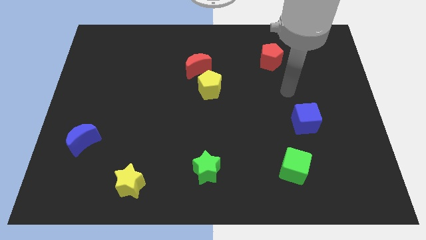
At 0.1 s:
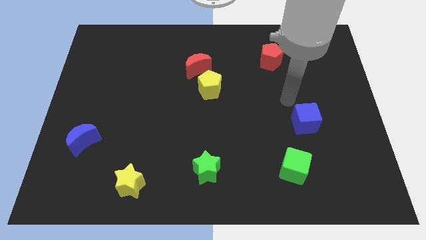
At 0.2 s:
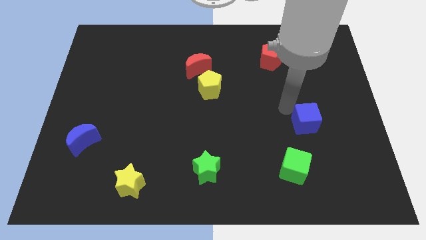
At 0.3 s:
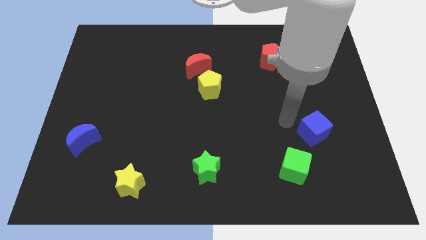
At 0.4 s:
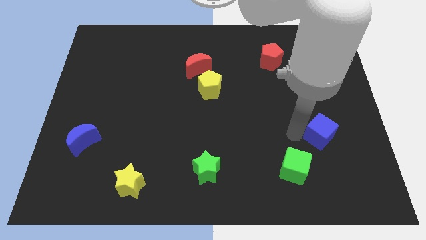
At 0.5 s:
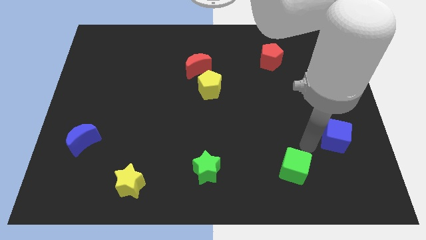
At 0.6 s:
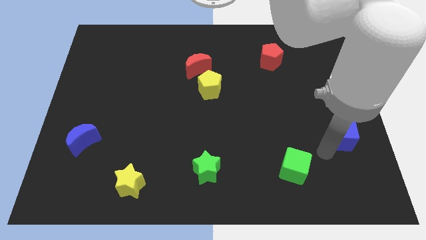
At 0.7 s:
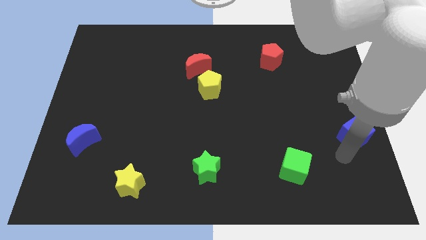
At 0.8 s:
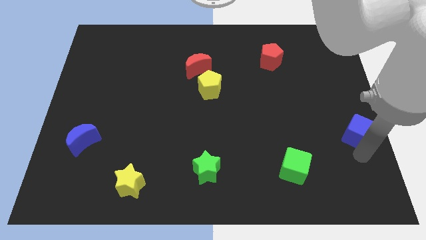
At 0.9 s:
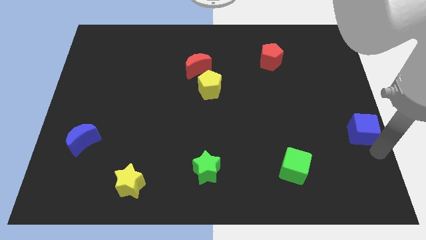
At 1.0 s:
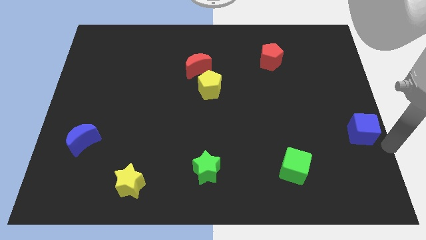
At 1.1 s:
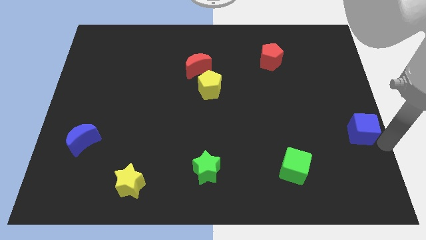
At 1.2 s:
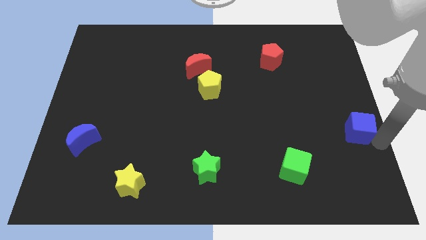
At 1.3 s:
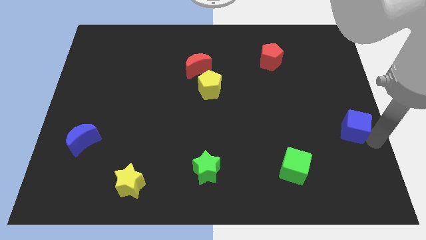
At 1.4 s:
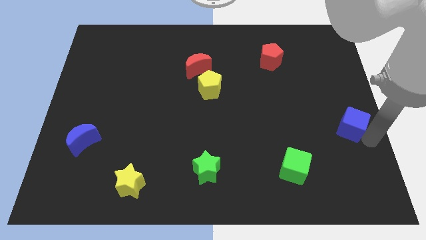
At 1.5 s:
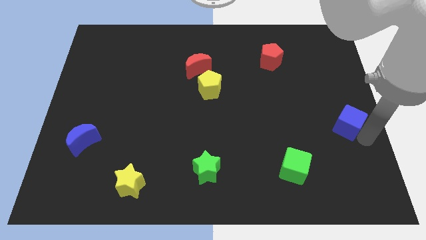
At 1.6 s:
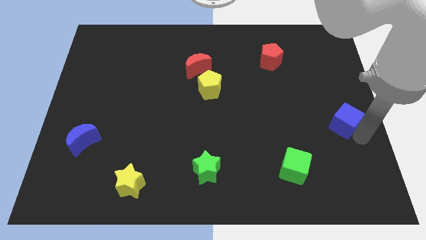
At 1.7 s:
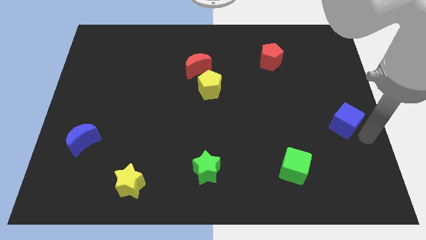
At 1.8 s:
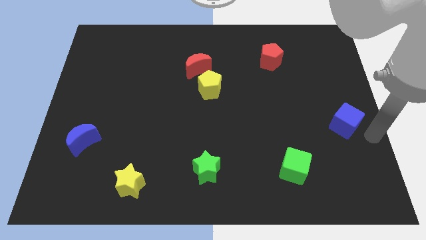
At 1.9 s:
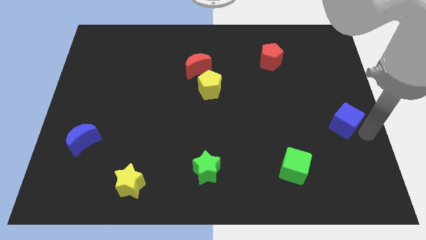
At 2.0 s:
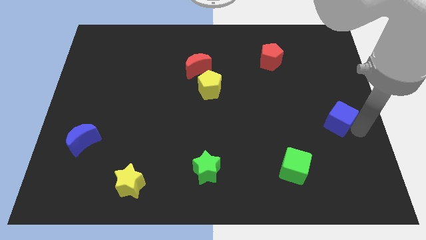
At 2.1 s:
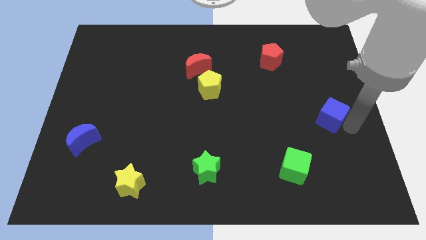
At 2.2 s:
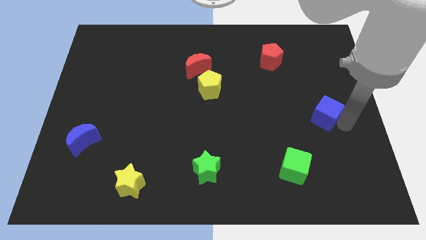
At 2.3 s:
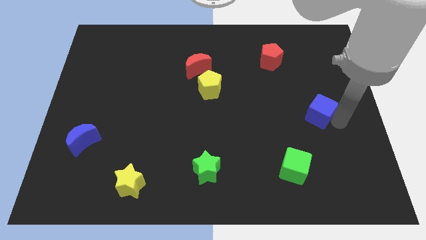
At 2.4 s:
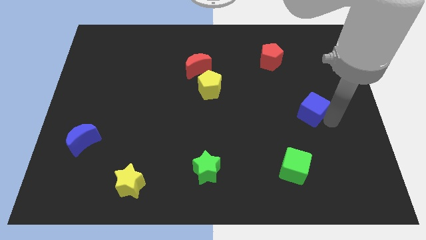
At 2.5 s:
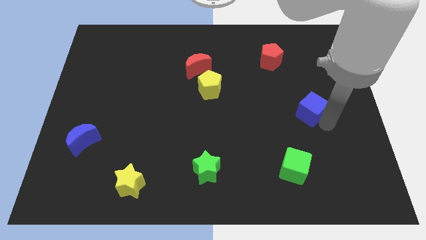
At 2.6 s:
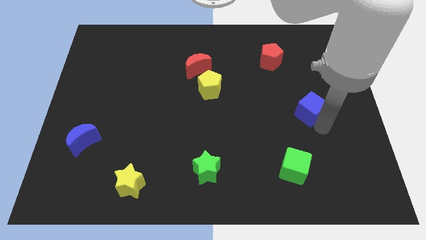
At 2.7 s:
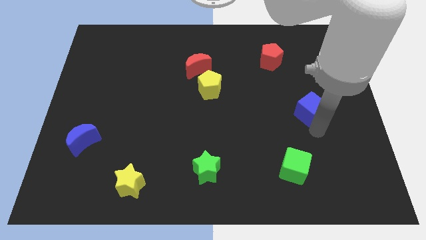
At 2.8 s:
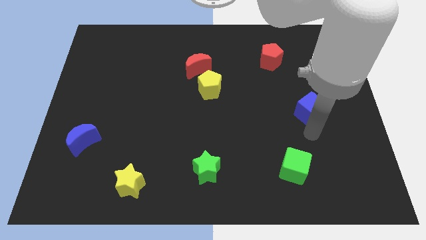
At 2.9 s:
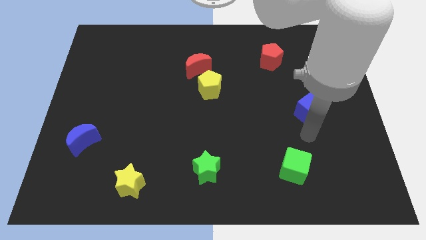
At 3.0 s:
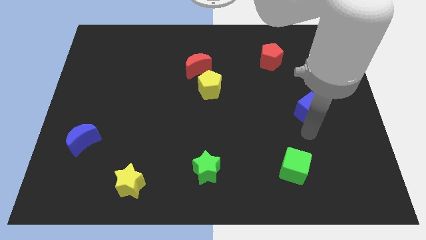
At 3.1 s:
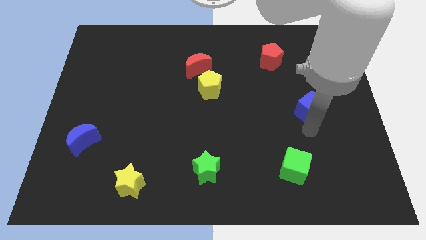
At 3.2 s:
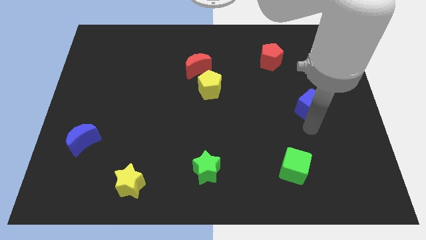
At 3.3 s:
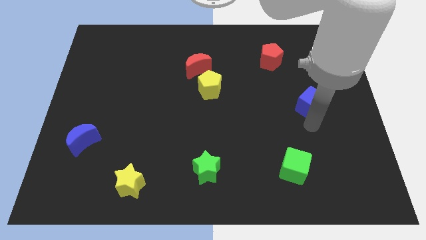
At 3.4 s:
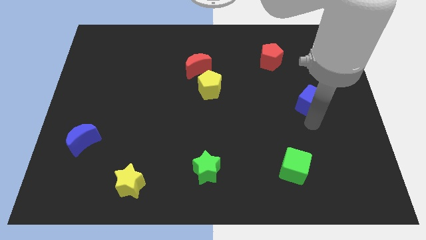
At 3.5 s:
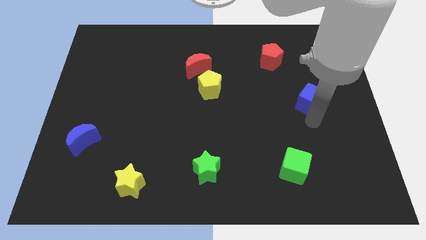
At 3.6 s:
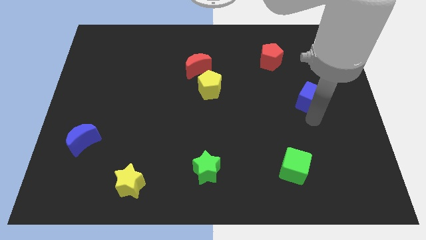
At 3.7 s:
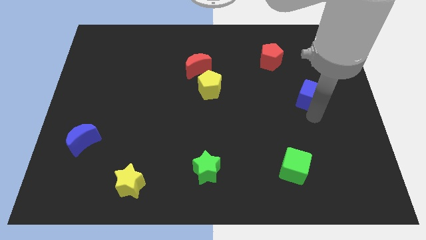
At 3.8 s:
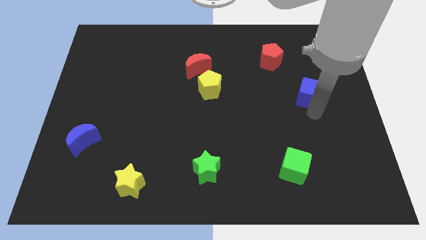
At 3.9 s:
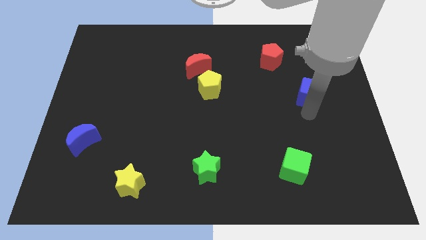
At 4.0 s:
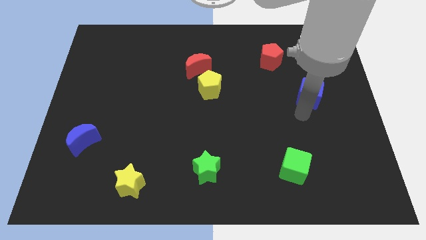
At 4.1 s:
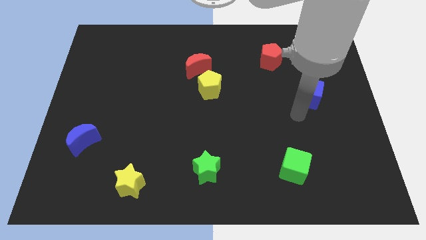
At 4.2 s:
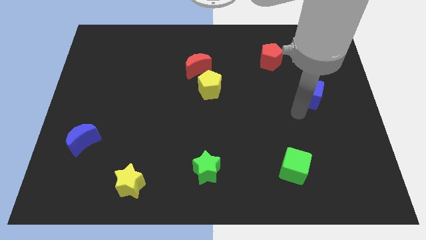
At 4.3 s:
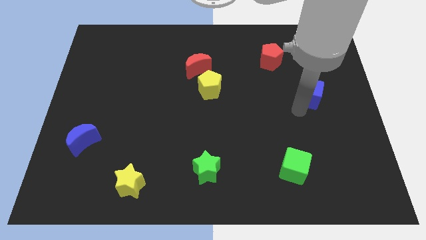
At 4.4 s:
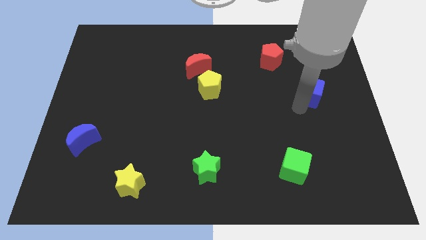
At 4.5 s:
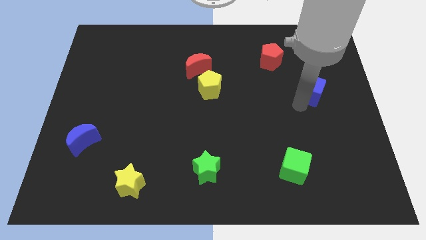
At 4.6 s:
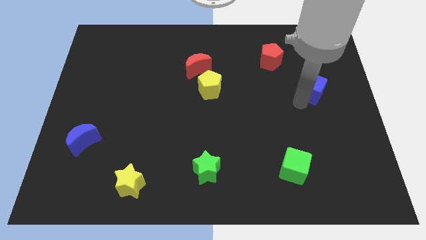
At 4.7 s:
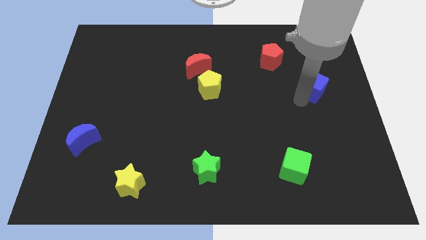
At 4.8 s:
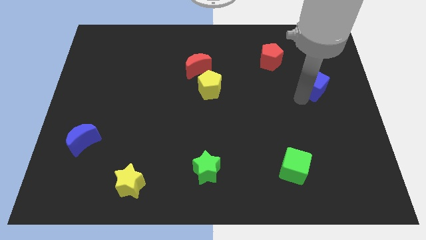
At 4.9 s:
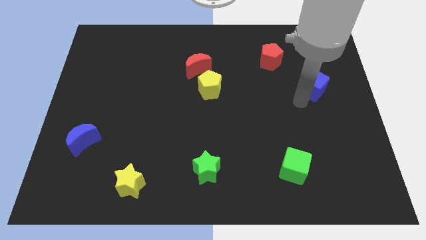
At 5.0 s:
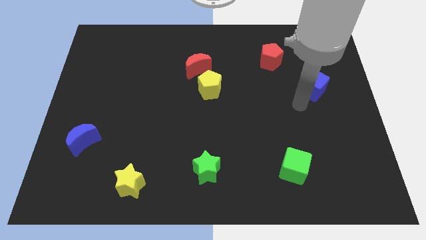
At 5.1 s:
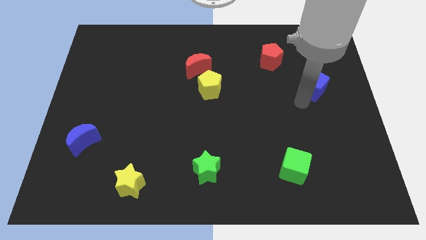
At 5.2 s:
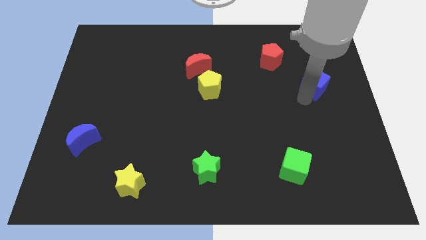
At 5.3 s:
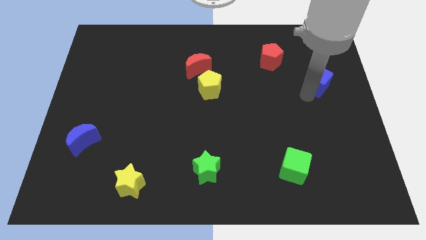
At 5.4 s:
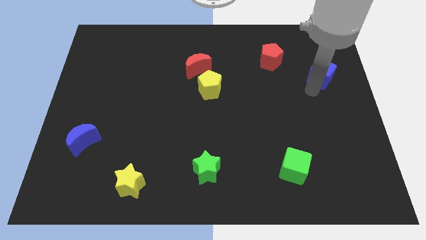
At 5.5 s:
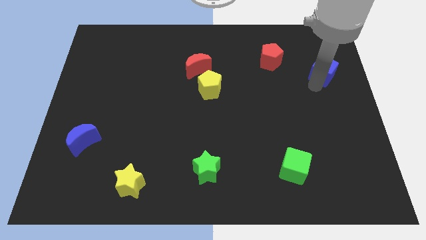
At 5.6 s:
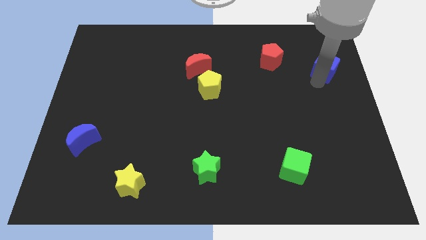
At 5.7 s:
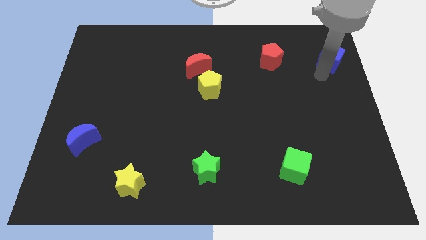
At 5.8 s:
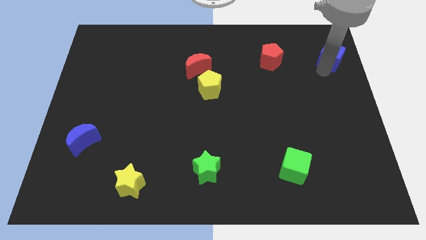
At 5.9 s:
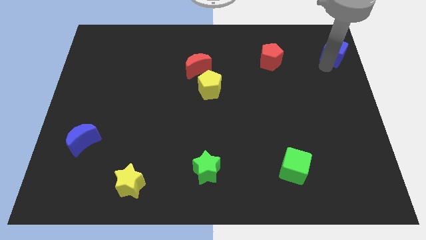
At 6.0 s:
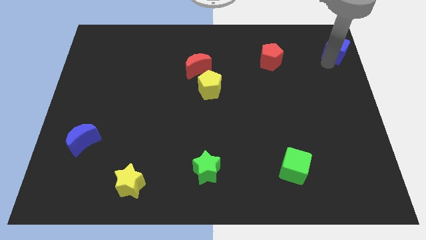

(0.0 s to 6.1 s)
push the blue cube to the upper right corner

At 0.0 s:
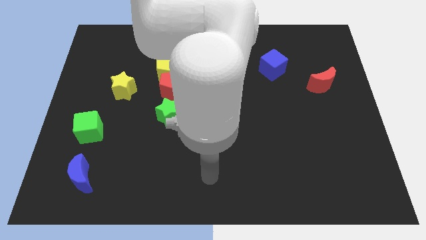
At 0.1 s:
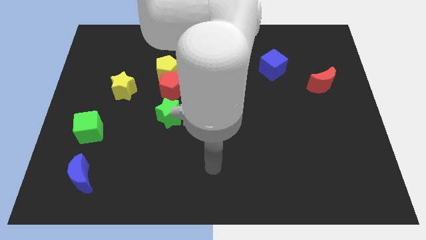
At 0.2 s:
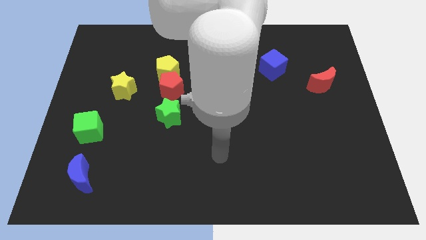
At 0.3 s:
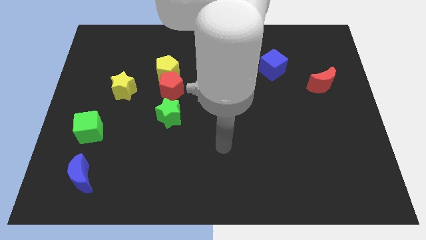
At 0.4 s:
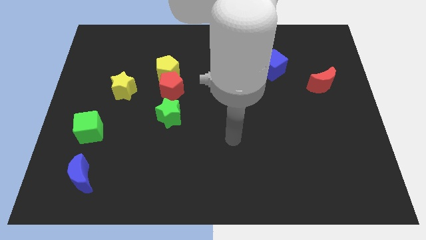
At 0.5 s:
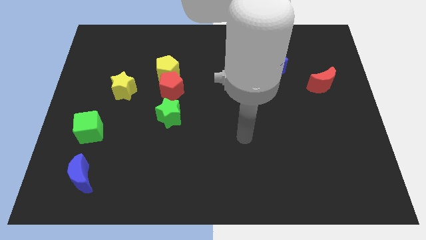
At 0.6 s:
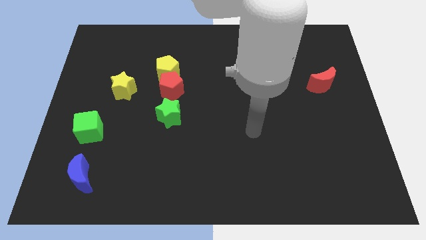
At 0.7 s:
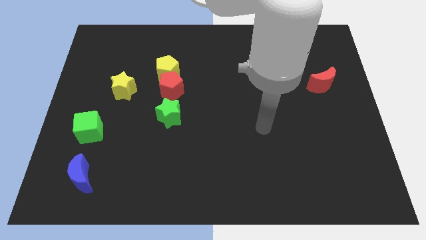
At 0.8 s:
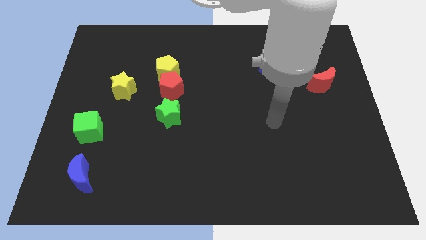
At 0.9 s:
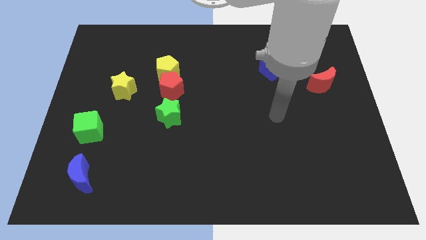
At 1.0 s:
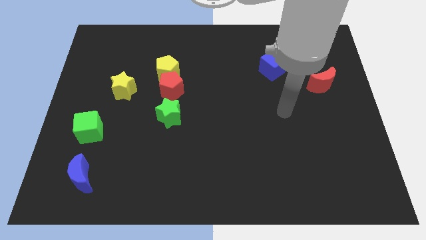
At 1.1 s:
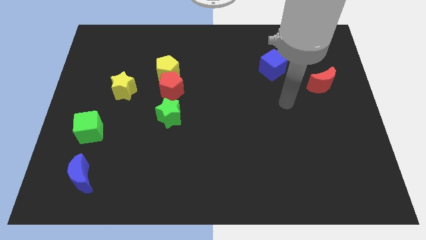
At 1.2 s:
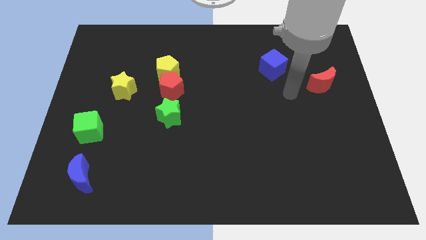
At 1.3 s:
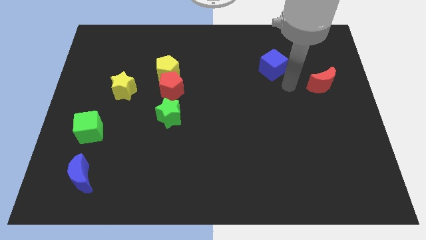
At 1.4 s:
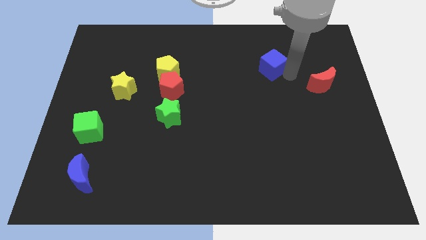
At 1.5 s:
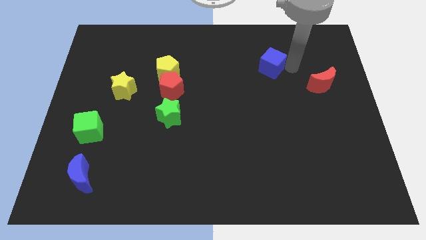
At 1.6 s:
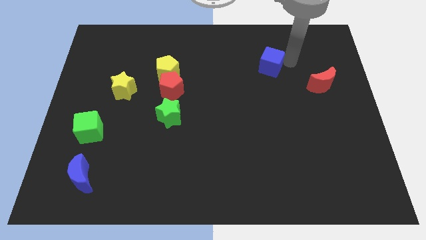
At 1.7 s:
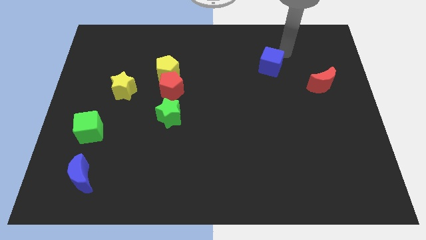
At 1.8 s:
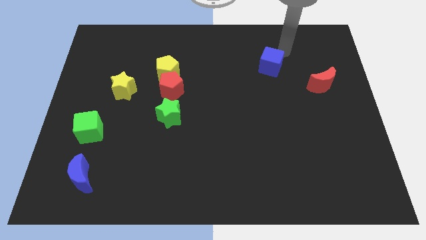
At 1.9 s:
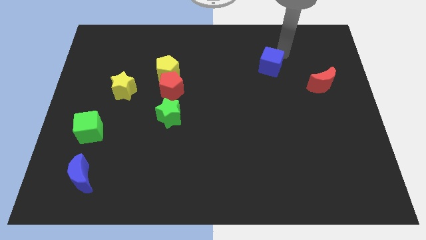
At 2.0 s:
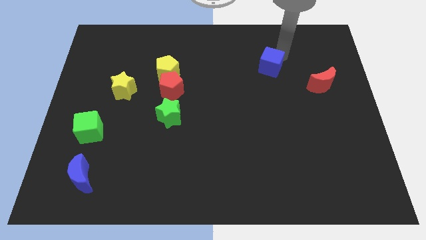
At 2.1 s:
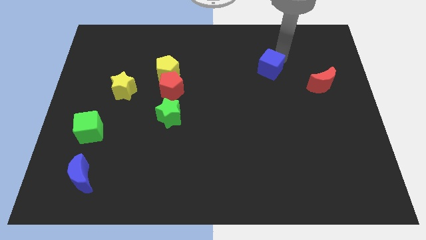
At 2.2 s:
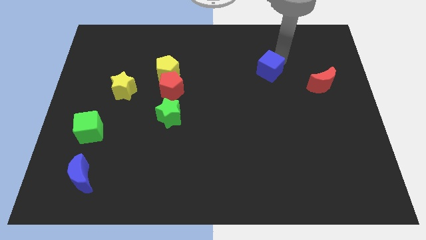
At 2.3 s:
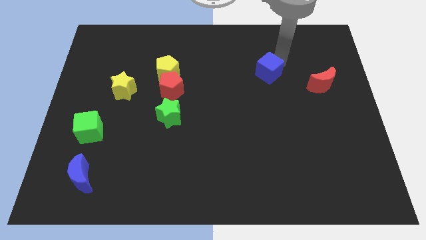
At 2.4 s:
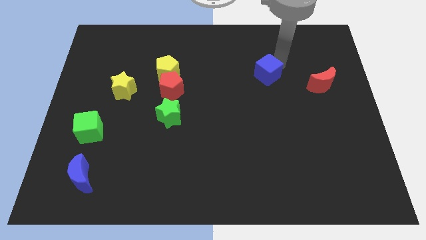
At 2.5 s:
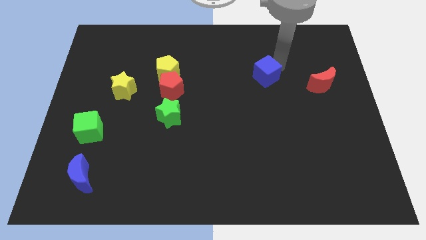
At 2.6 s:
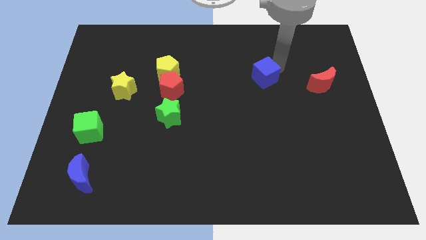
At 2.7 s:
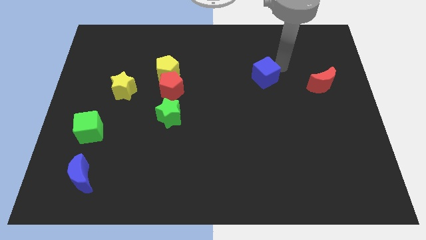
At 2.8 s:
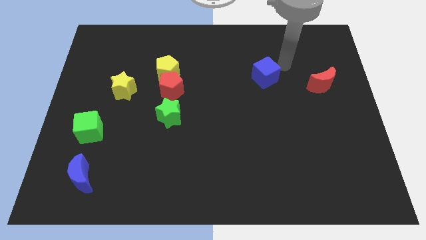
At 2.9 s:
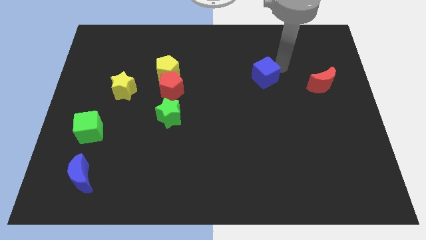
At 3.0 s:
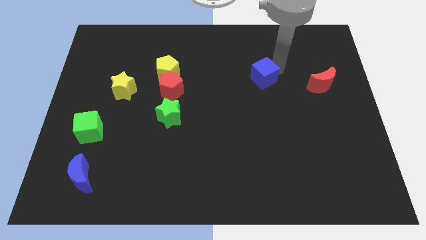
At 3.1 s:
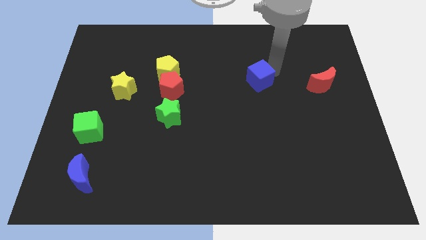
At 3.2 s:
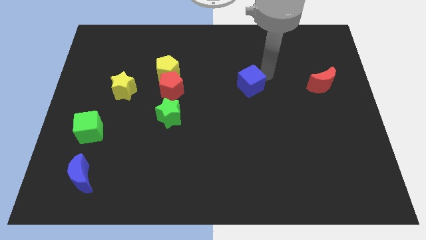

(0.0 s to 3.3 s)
slide the blue cube to the center
